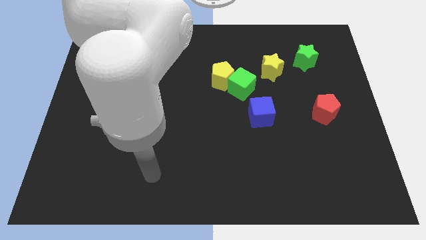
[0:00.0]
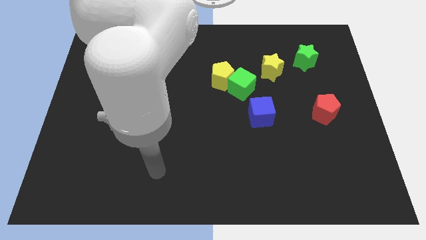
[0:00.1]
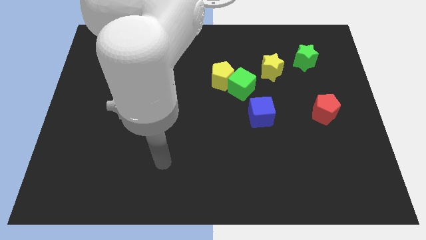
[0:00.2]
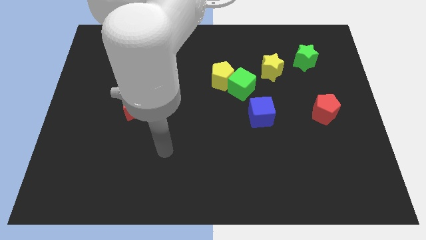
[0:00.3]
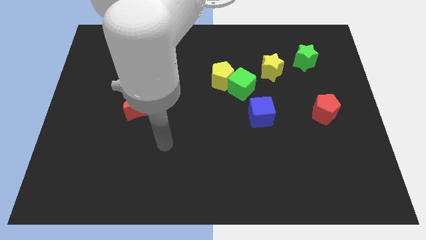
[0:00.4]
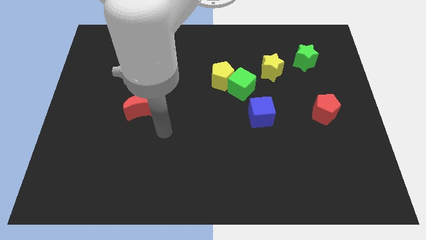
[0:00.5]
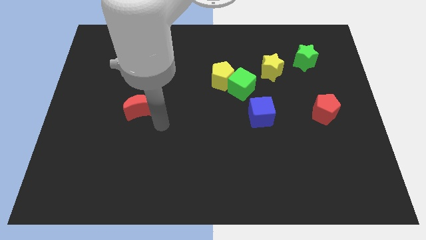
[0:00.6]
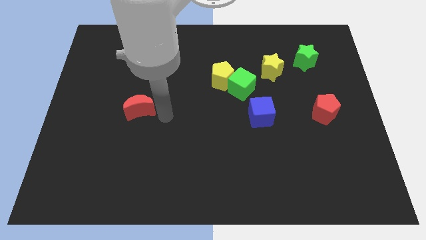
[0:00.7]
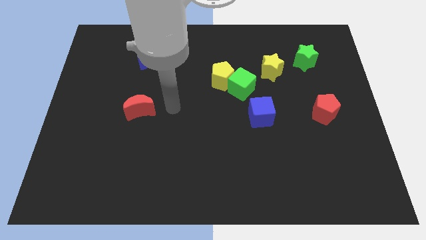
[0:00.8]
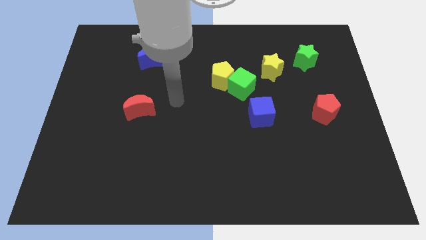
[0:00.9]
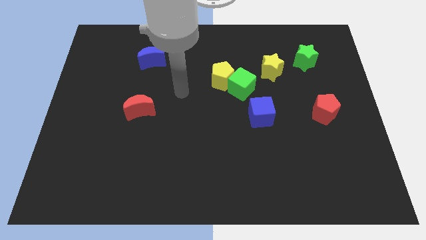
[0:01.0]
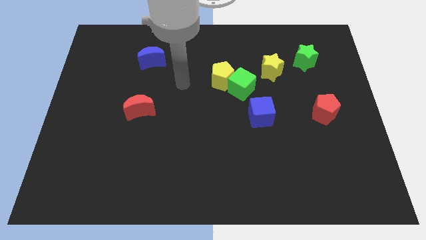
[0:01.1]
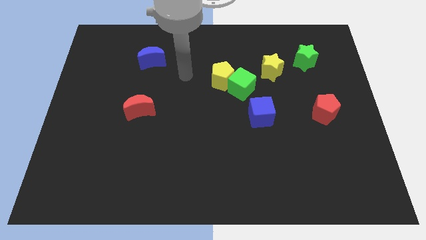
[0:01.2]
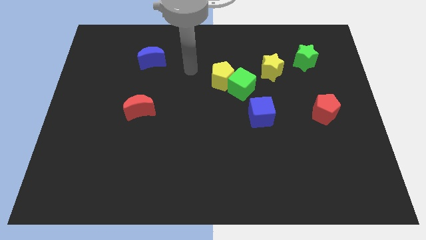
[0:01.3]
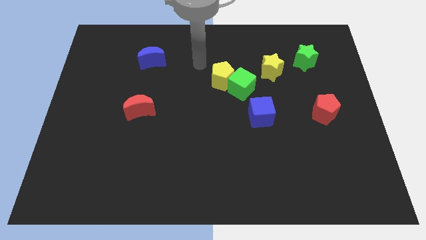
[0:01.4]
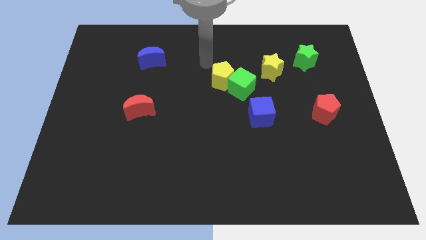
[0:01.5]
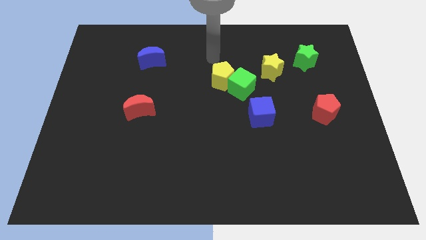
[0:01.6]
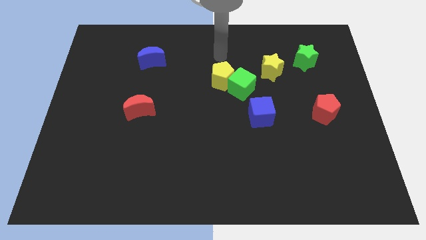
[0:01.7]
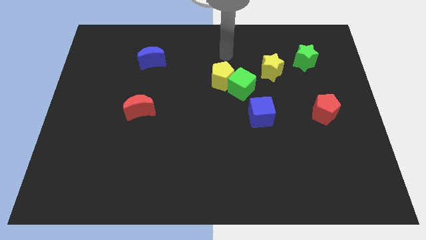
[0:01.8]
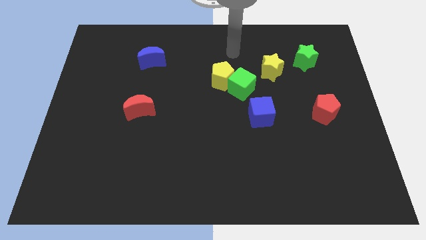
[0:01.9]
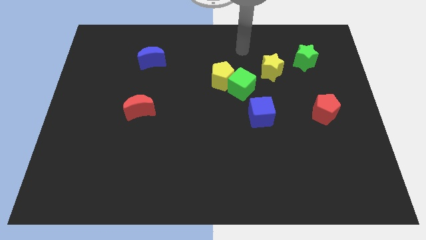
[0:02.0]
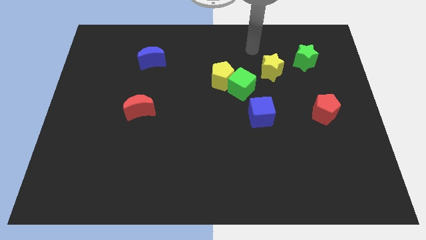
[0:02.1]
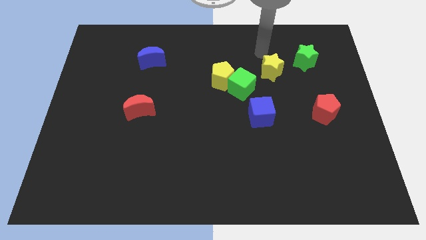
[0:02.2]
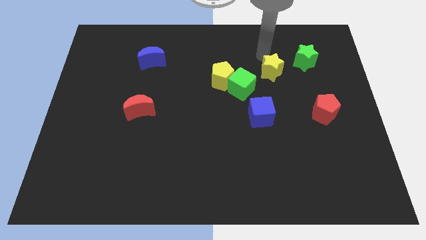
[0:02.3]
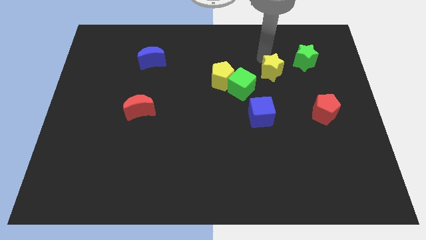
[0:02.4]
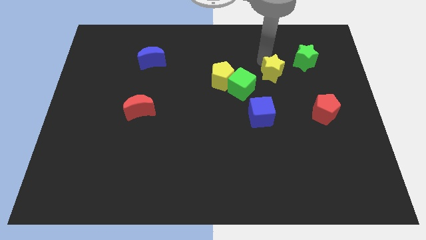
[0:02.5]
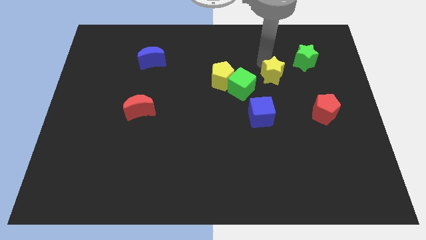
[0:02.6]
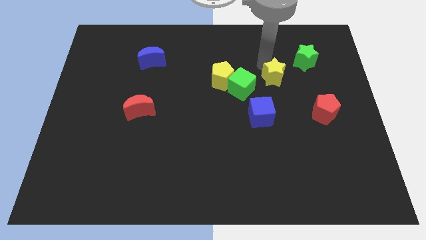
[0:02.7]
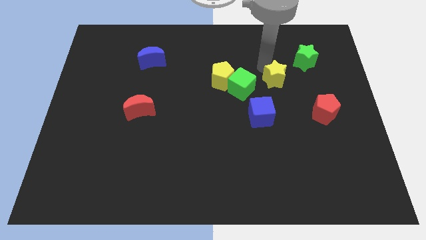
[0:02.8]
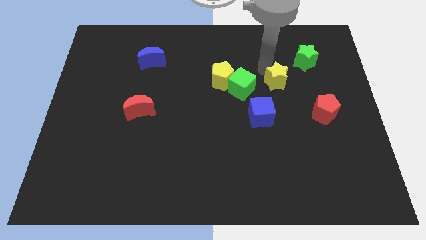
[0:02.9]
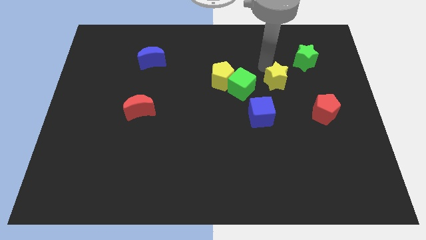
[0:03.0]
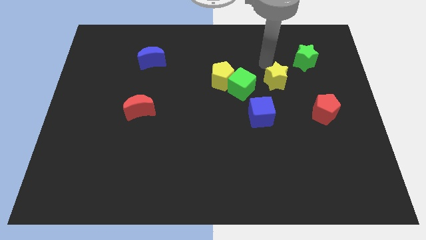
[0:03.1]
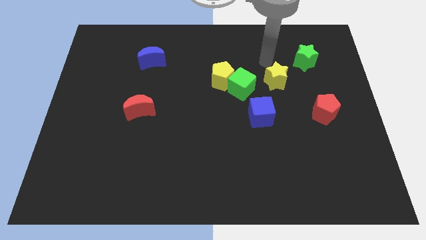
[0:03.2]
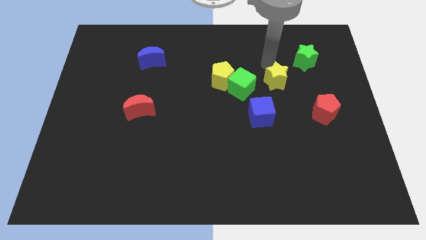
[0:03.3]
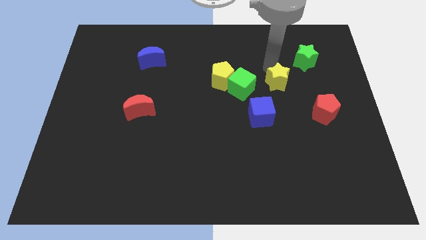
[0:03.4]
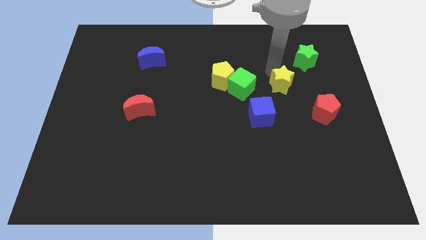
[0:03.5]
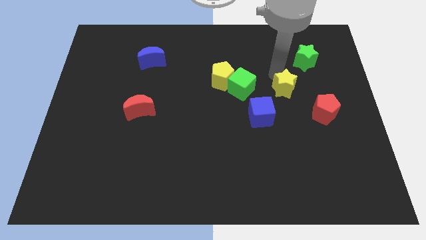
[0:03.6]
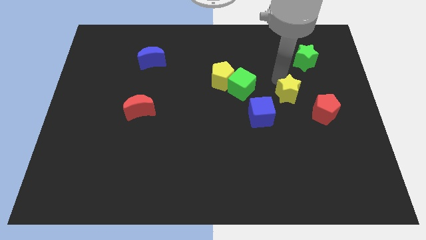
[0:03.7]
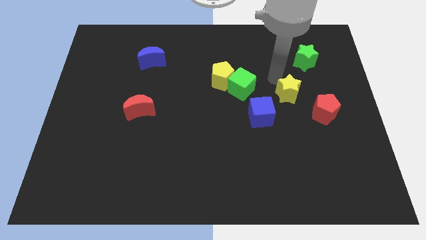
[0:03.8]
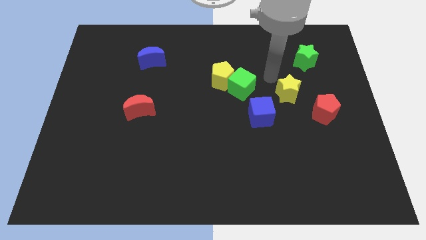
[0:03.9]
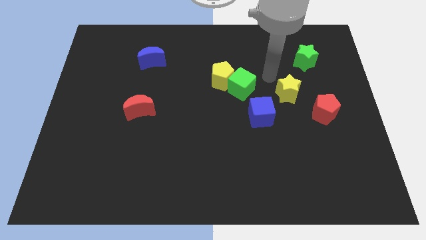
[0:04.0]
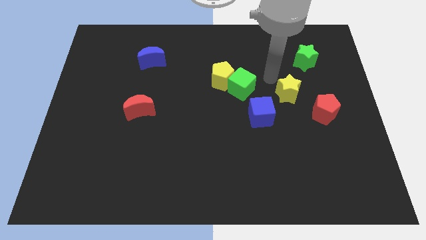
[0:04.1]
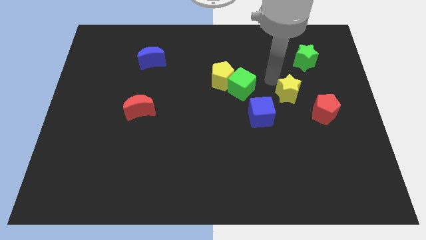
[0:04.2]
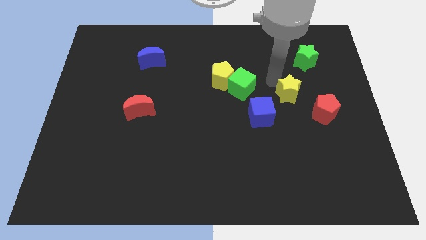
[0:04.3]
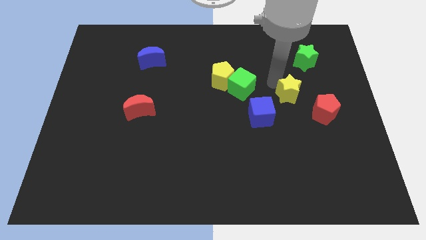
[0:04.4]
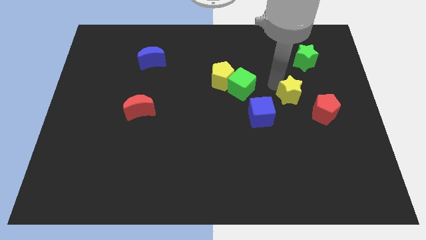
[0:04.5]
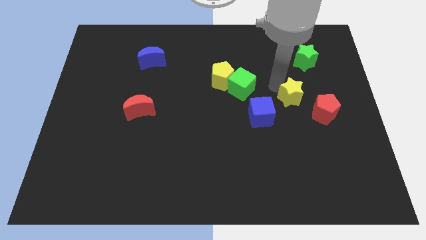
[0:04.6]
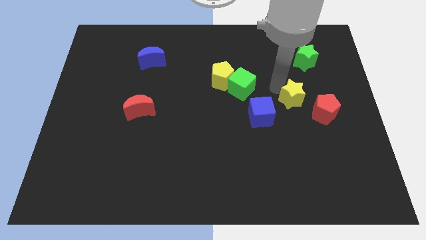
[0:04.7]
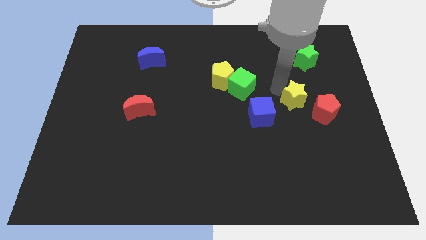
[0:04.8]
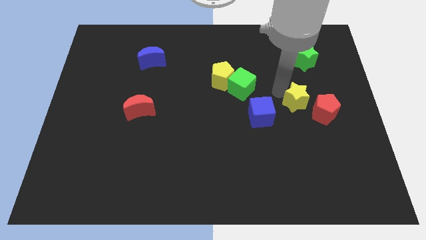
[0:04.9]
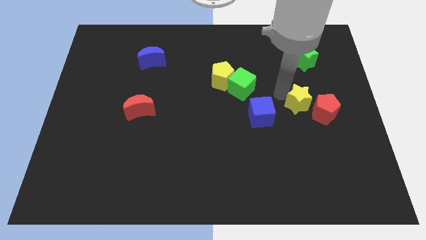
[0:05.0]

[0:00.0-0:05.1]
move the yellow star towards the red pentagon

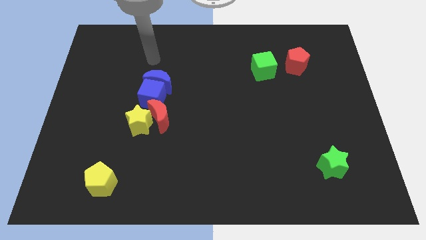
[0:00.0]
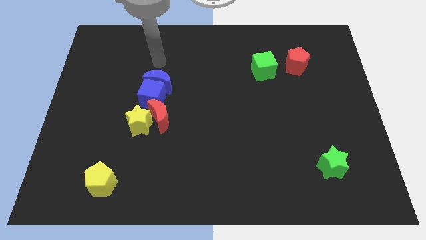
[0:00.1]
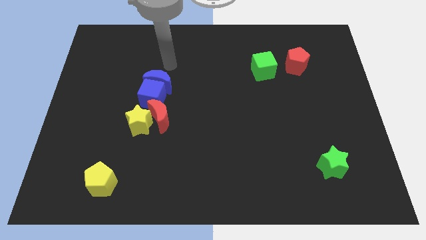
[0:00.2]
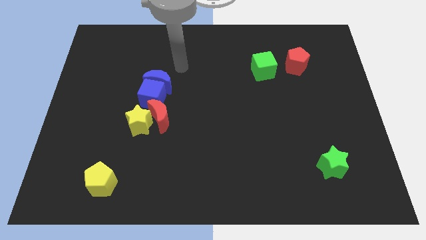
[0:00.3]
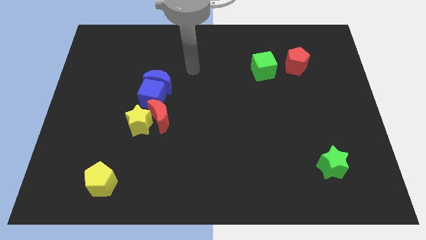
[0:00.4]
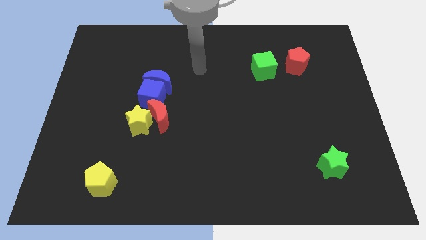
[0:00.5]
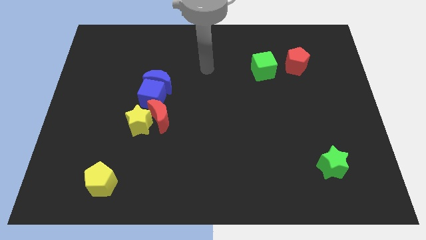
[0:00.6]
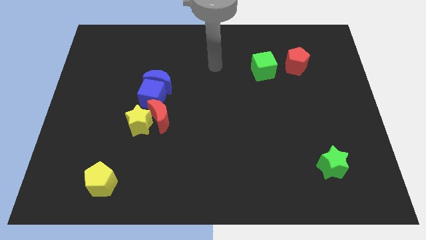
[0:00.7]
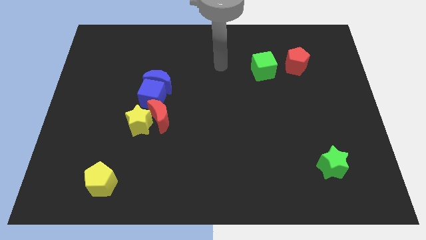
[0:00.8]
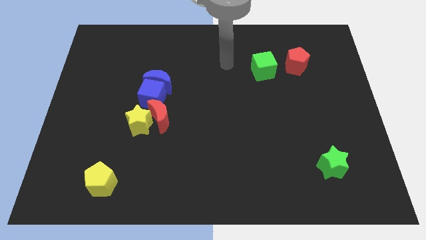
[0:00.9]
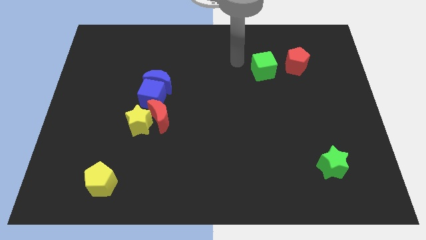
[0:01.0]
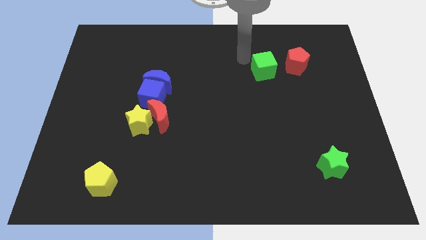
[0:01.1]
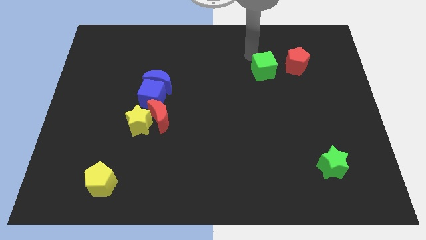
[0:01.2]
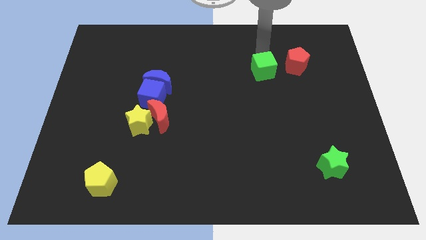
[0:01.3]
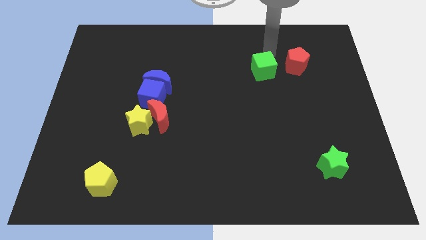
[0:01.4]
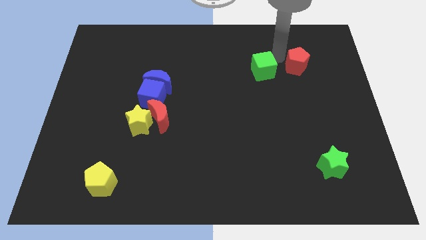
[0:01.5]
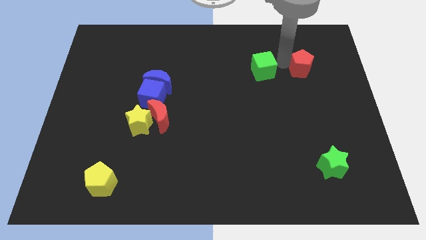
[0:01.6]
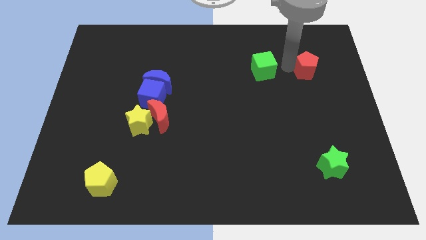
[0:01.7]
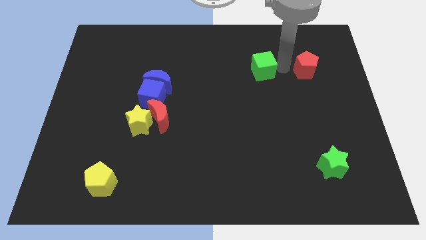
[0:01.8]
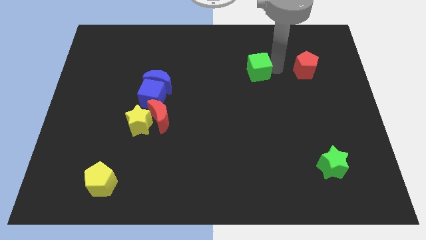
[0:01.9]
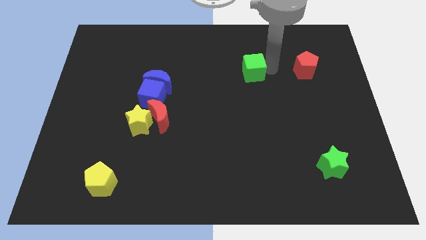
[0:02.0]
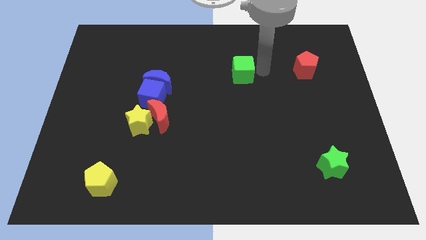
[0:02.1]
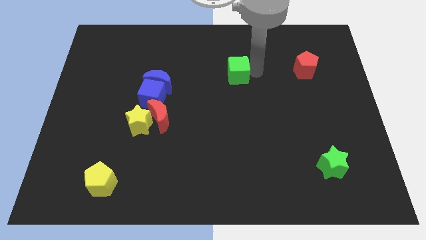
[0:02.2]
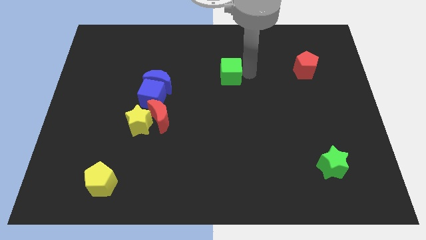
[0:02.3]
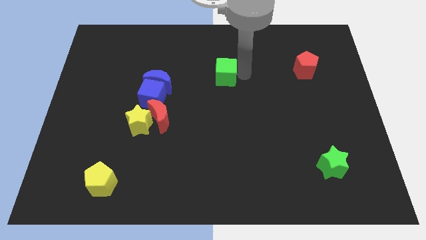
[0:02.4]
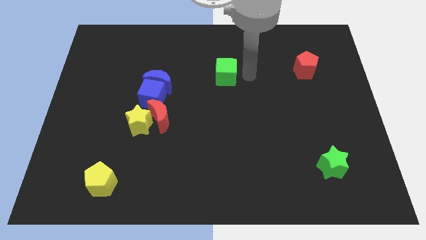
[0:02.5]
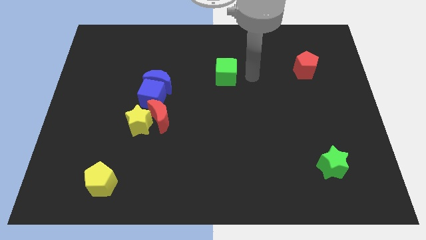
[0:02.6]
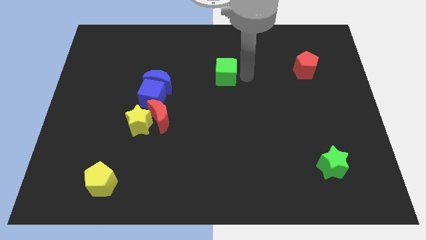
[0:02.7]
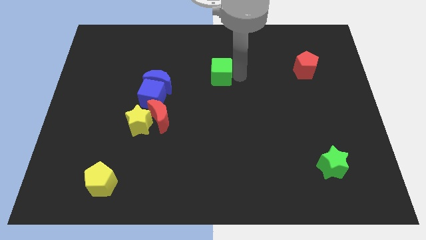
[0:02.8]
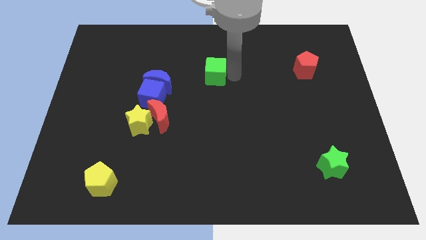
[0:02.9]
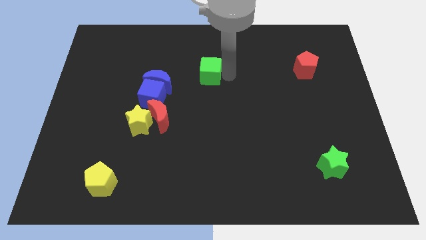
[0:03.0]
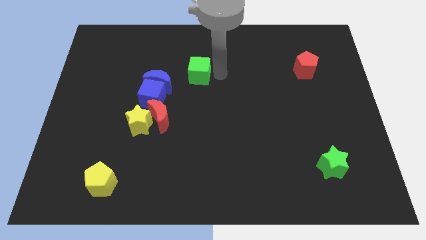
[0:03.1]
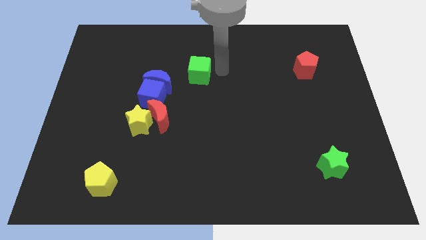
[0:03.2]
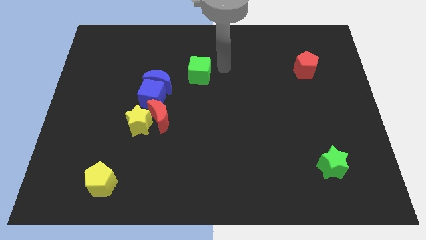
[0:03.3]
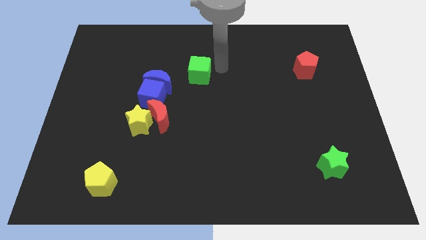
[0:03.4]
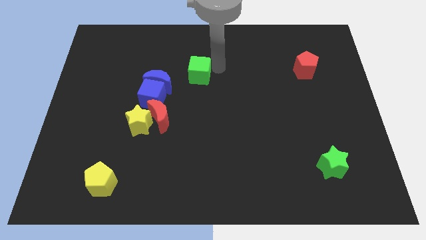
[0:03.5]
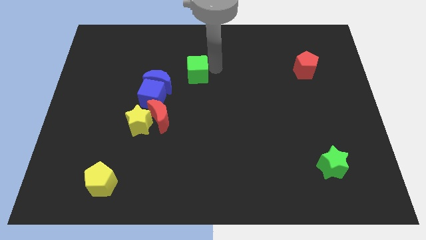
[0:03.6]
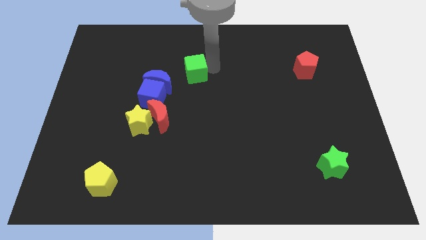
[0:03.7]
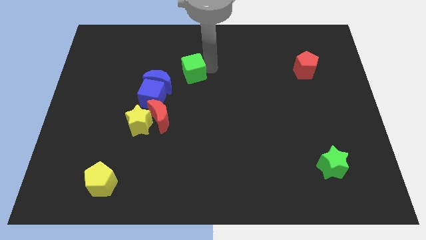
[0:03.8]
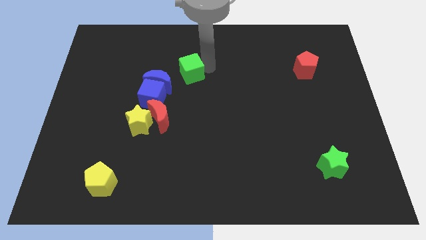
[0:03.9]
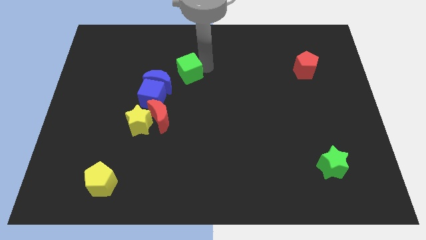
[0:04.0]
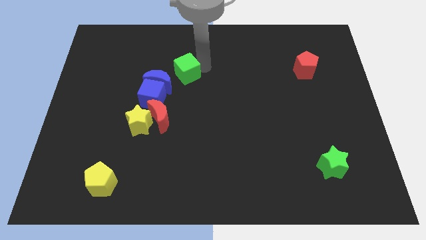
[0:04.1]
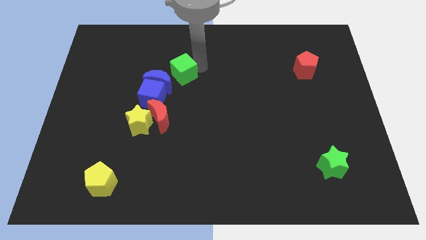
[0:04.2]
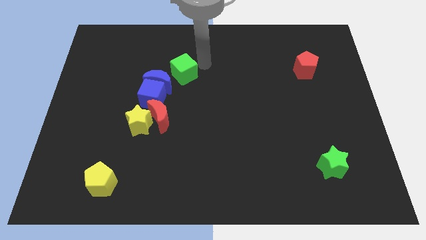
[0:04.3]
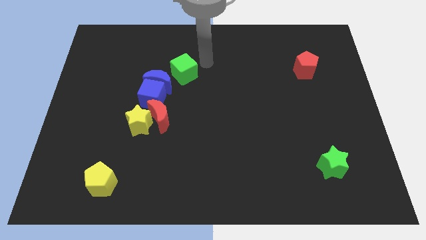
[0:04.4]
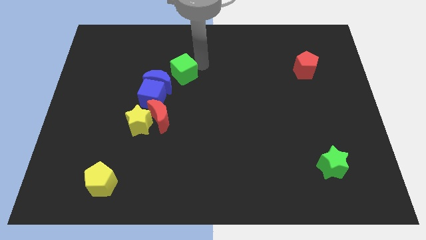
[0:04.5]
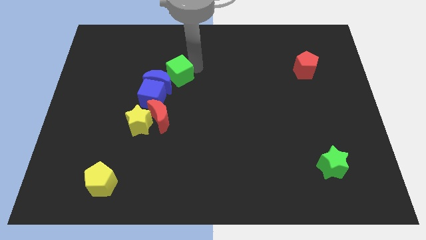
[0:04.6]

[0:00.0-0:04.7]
push the green cube towards the blue moon
